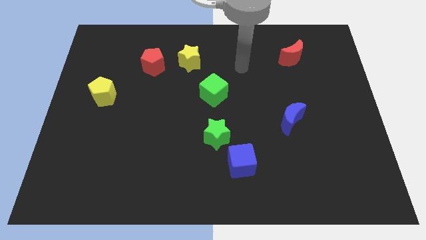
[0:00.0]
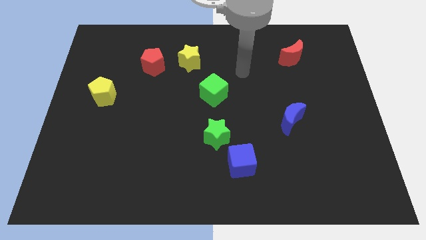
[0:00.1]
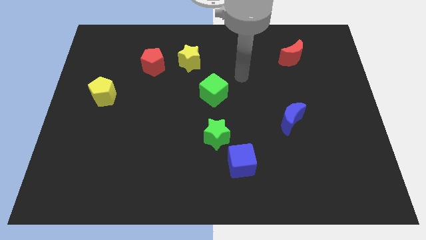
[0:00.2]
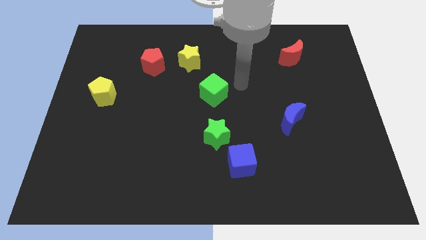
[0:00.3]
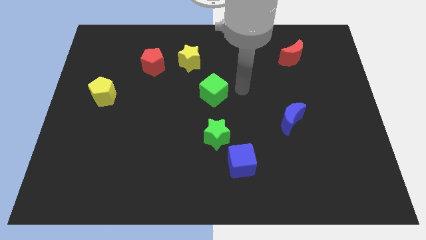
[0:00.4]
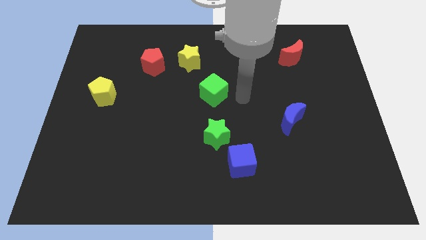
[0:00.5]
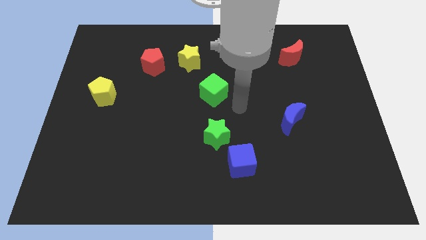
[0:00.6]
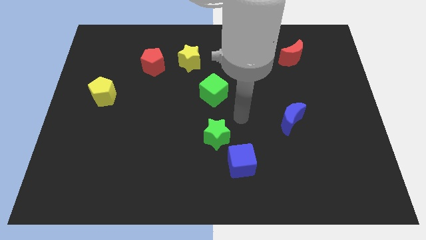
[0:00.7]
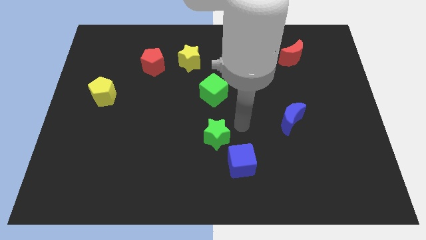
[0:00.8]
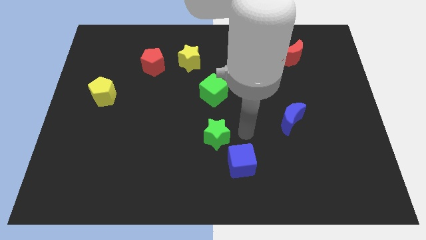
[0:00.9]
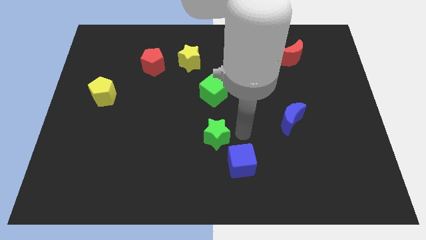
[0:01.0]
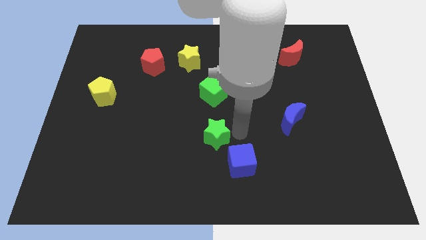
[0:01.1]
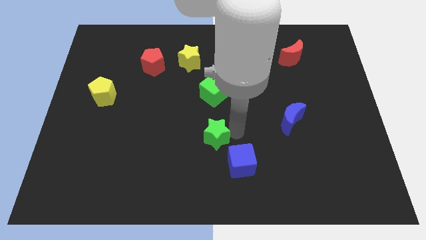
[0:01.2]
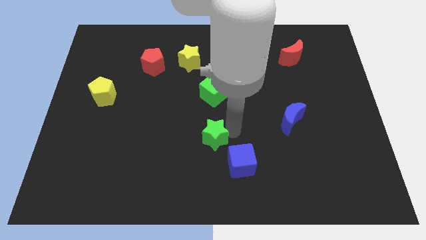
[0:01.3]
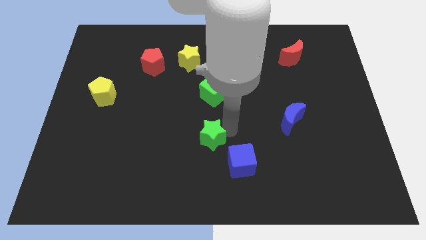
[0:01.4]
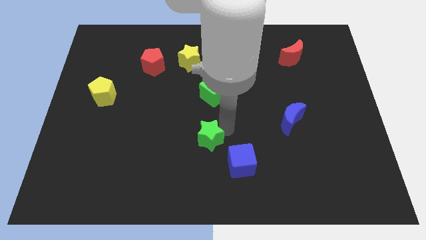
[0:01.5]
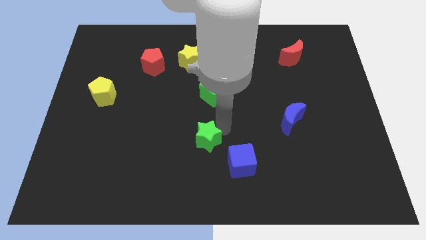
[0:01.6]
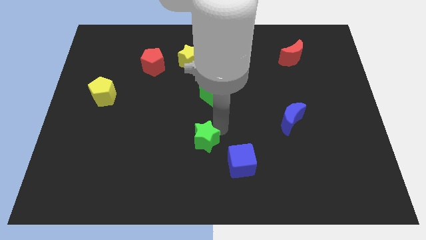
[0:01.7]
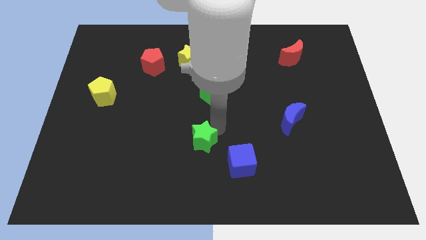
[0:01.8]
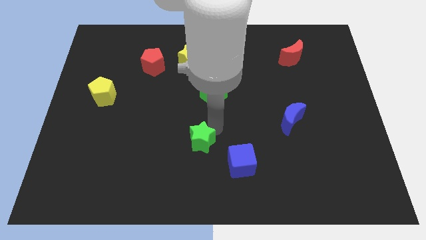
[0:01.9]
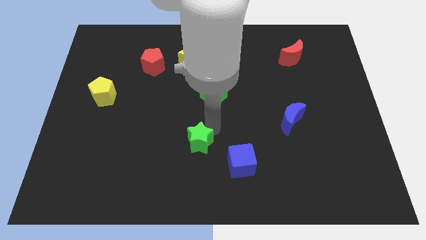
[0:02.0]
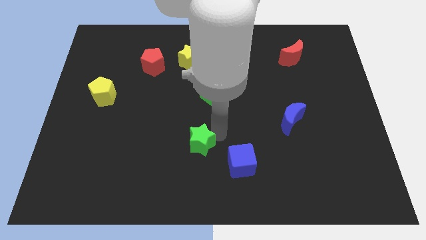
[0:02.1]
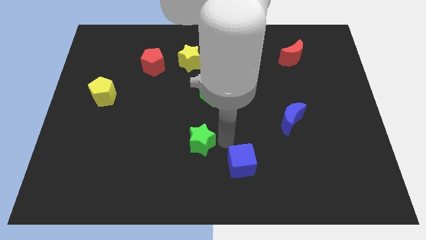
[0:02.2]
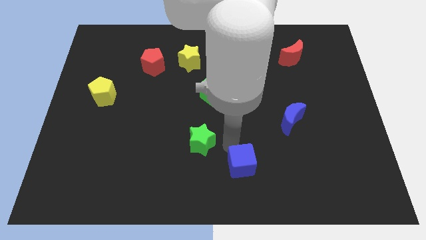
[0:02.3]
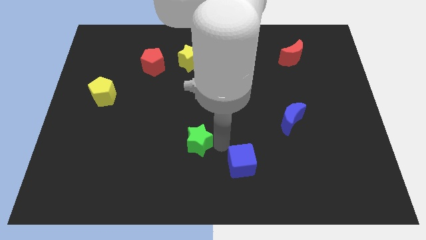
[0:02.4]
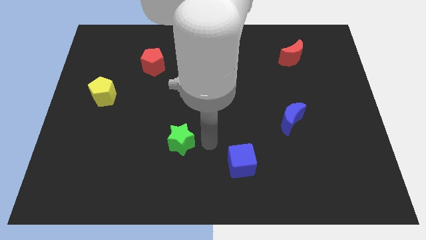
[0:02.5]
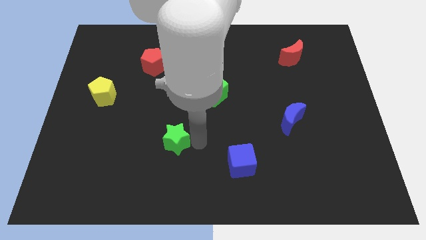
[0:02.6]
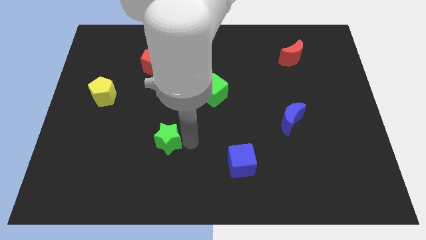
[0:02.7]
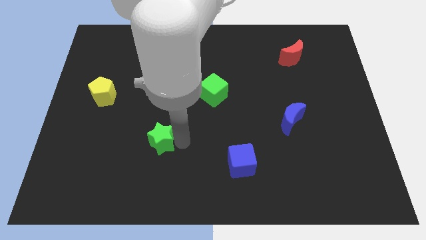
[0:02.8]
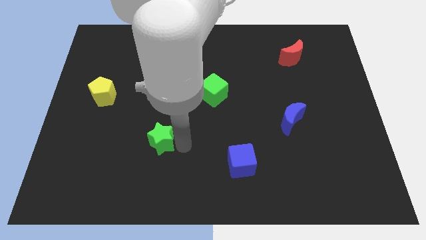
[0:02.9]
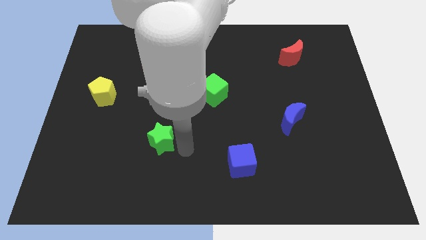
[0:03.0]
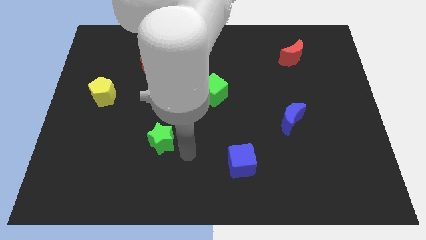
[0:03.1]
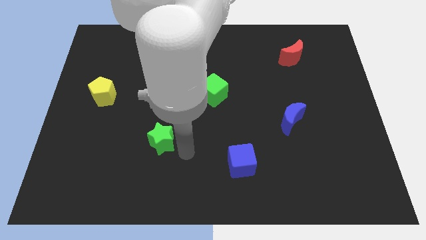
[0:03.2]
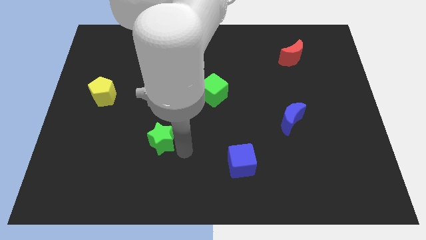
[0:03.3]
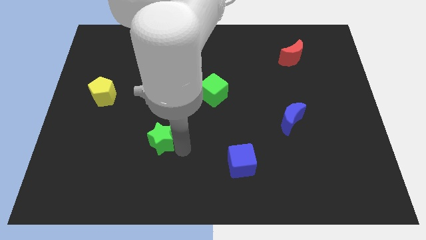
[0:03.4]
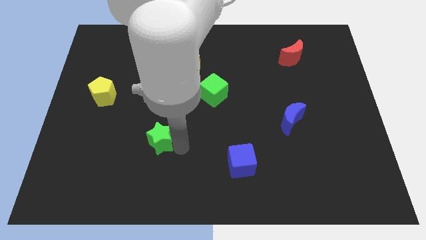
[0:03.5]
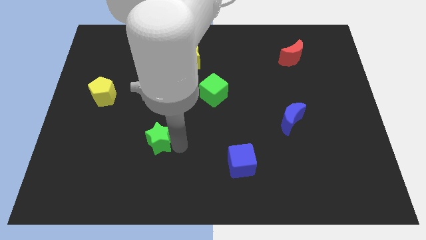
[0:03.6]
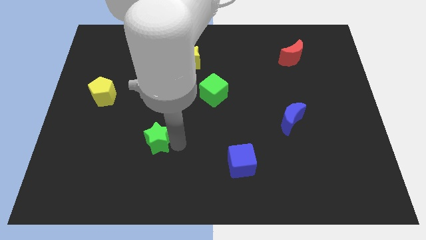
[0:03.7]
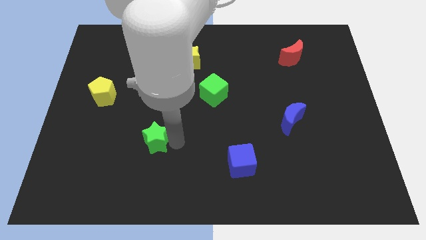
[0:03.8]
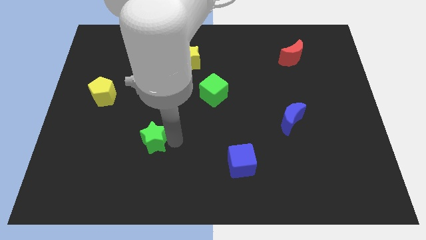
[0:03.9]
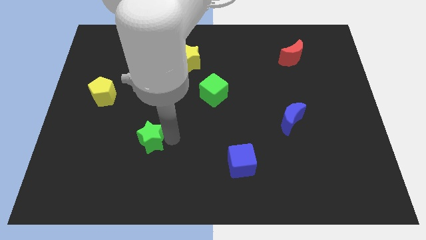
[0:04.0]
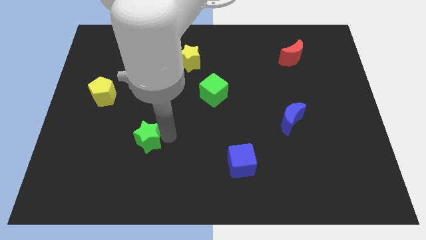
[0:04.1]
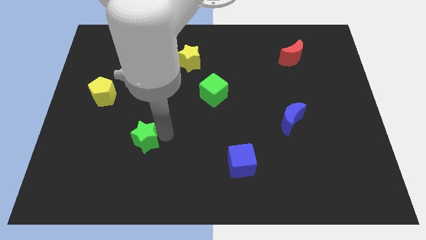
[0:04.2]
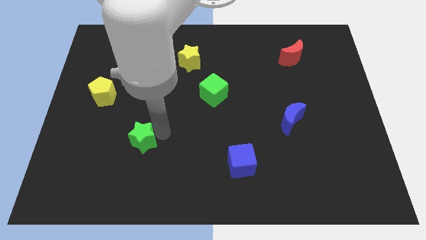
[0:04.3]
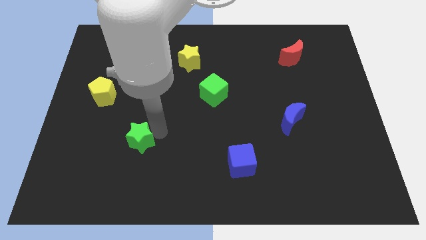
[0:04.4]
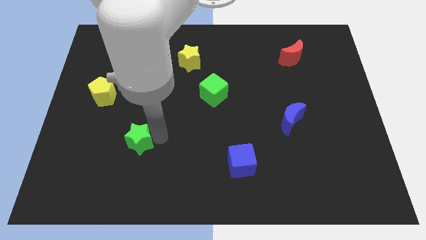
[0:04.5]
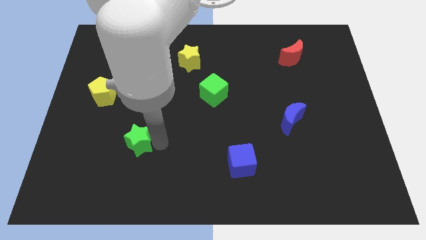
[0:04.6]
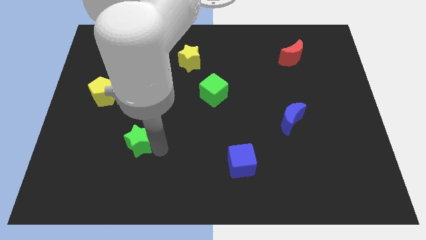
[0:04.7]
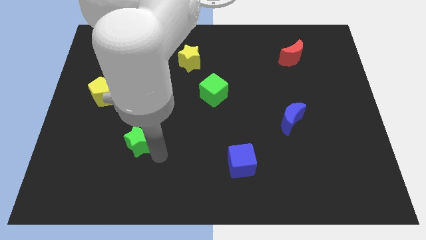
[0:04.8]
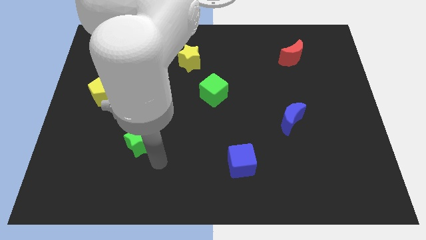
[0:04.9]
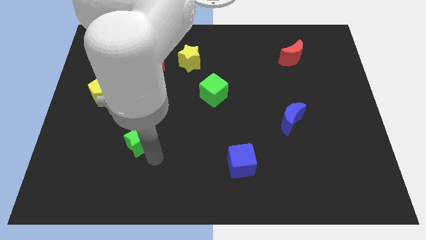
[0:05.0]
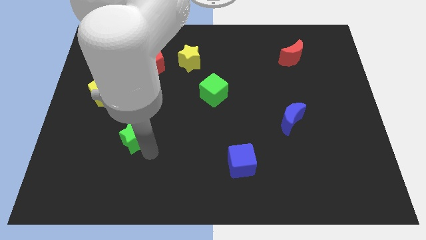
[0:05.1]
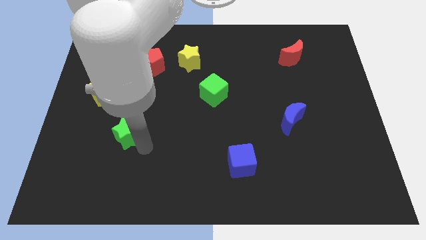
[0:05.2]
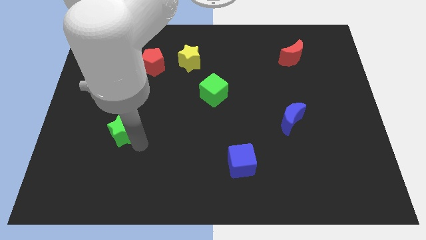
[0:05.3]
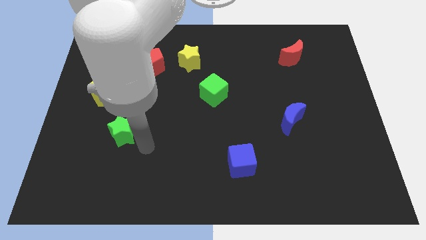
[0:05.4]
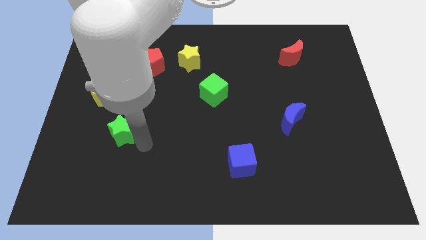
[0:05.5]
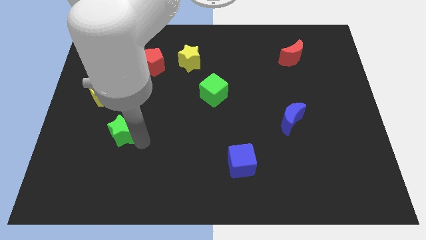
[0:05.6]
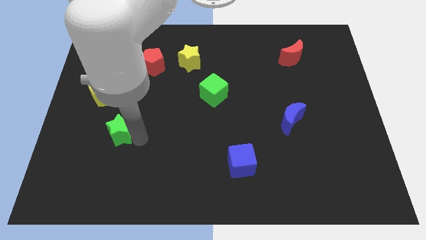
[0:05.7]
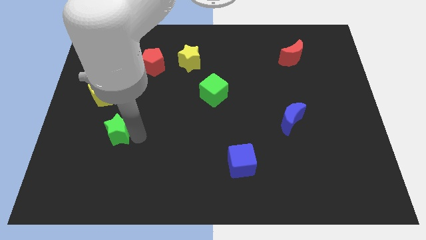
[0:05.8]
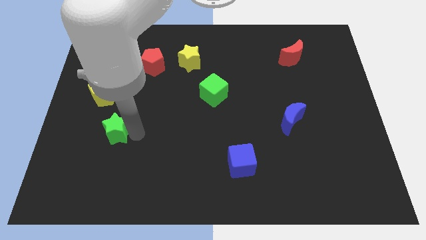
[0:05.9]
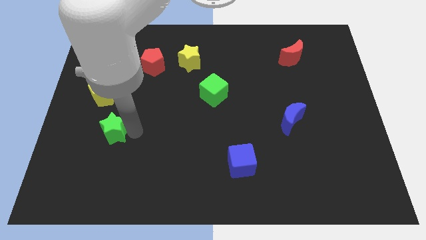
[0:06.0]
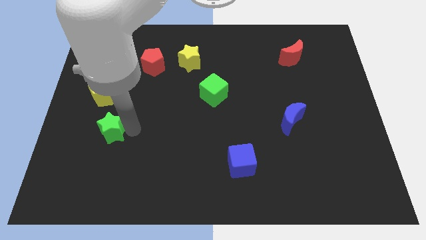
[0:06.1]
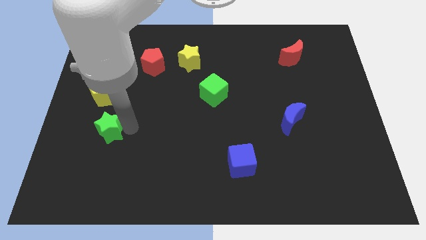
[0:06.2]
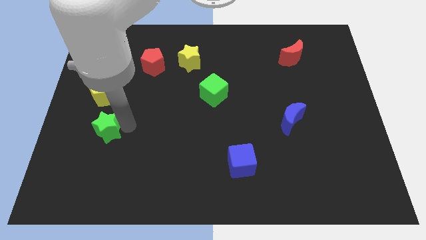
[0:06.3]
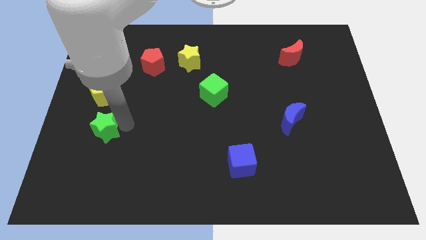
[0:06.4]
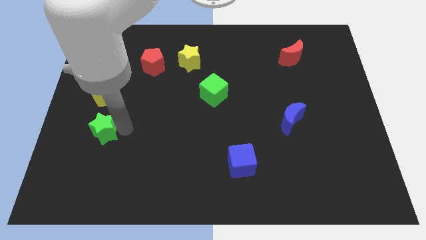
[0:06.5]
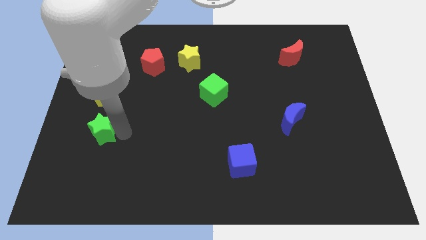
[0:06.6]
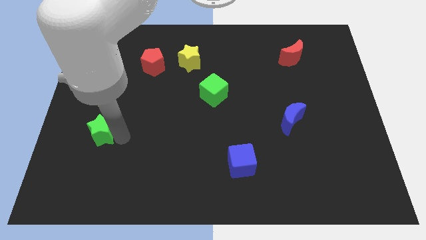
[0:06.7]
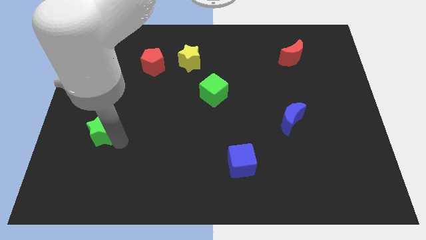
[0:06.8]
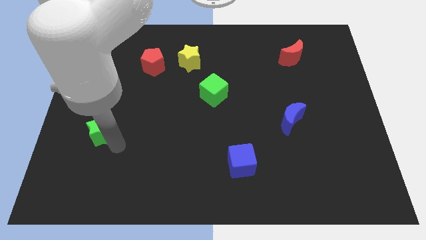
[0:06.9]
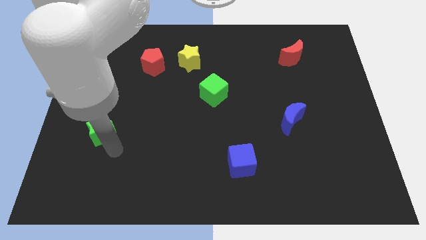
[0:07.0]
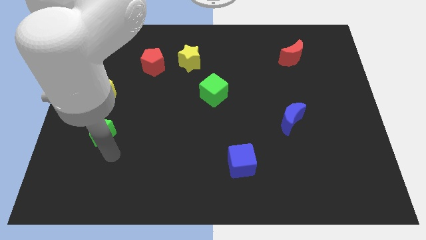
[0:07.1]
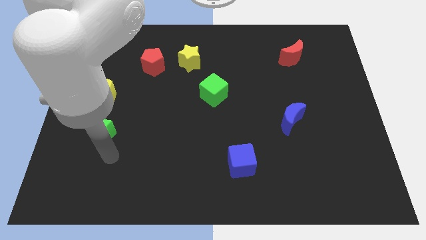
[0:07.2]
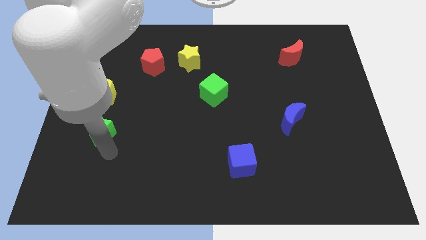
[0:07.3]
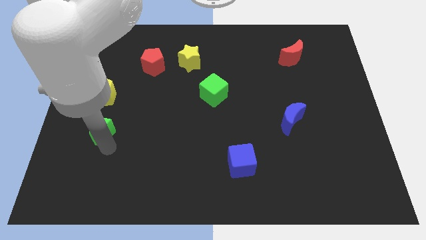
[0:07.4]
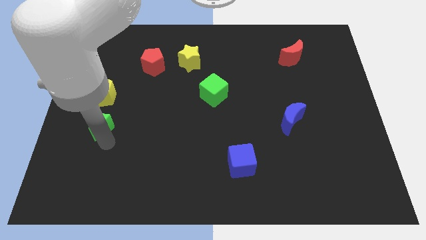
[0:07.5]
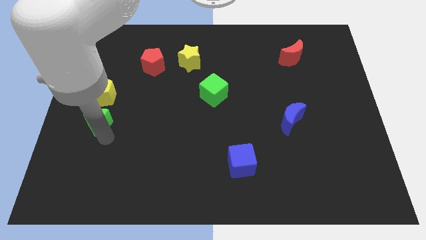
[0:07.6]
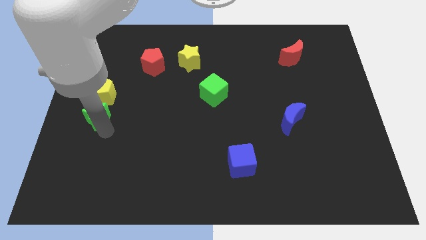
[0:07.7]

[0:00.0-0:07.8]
put the green star to the left side of the board
